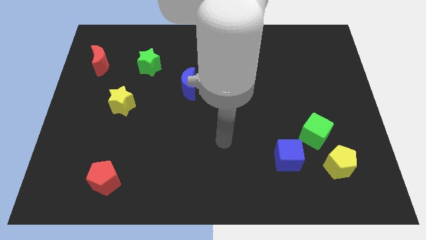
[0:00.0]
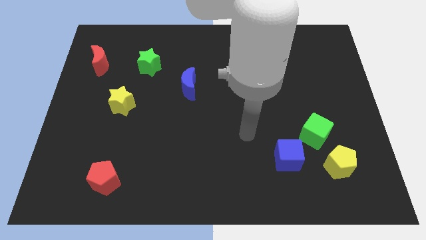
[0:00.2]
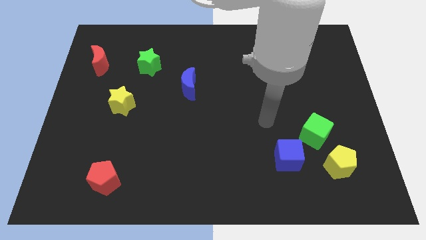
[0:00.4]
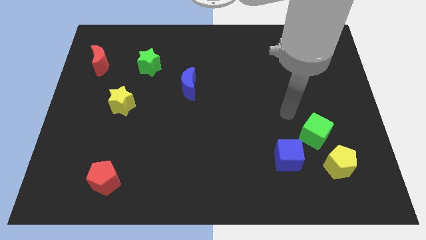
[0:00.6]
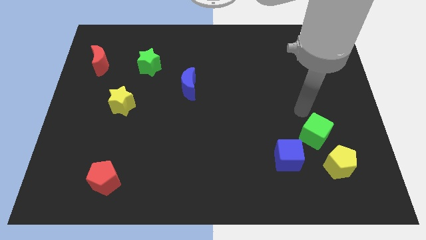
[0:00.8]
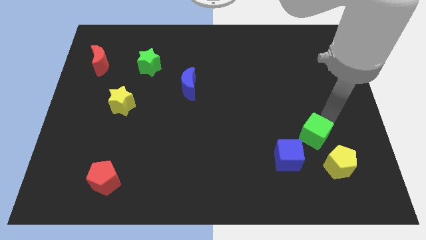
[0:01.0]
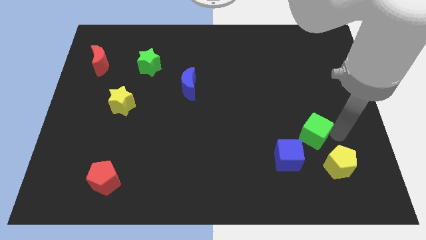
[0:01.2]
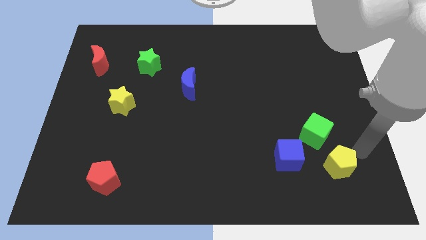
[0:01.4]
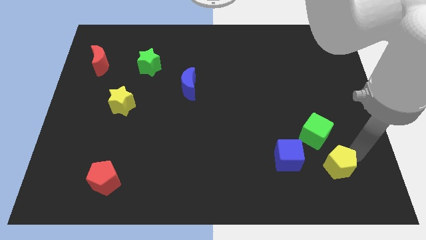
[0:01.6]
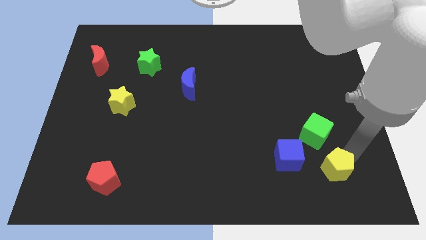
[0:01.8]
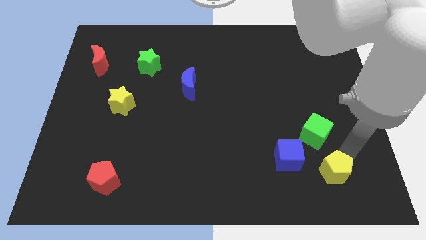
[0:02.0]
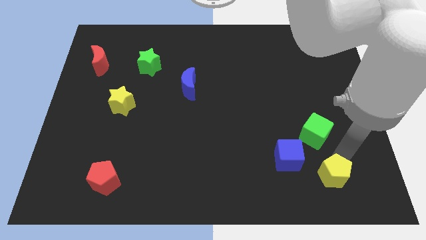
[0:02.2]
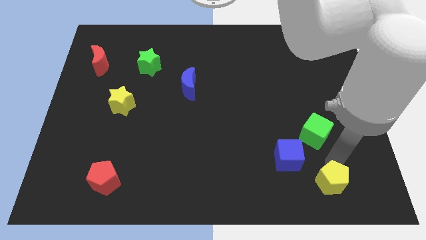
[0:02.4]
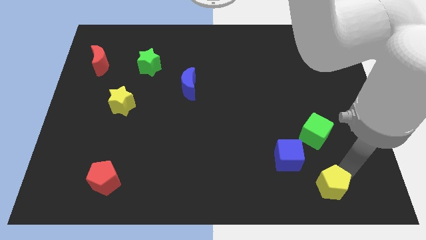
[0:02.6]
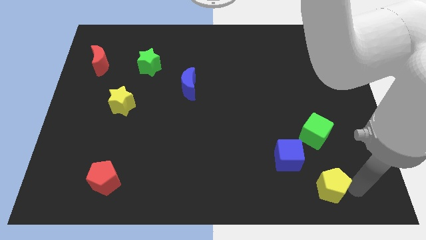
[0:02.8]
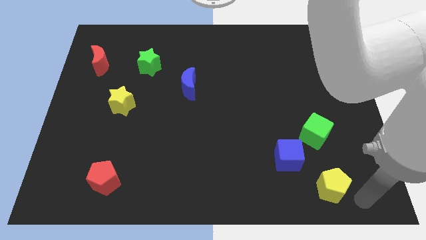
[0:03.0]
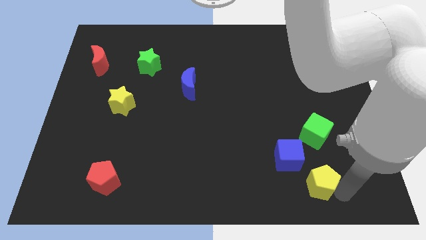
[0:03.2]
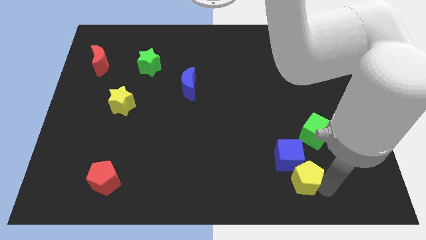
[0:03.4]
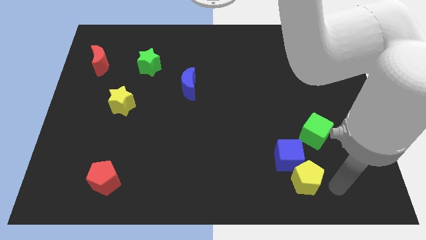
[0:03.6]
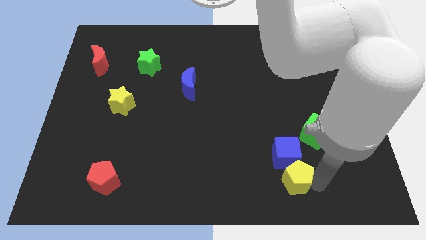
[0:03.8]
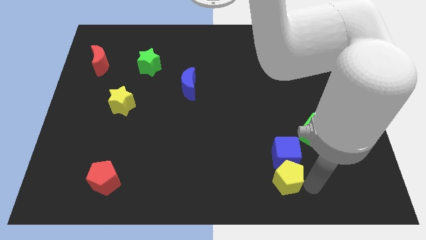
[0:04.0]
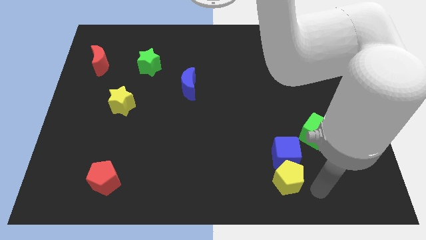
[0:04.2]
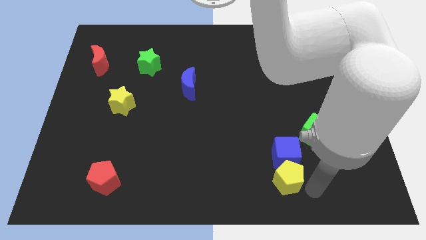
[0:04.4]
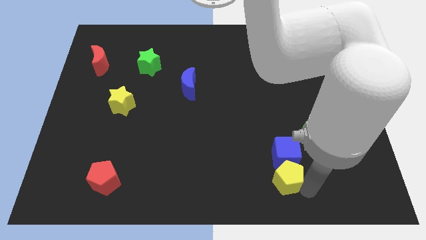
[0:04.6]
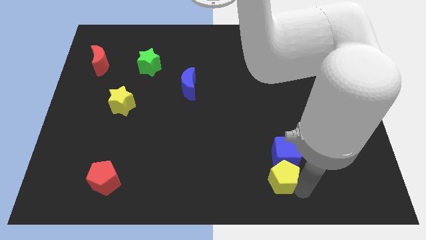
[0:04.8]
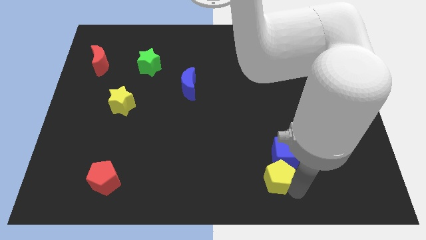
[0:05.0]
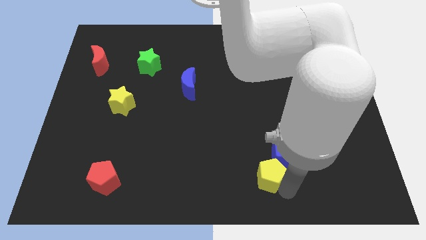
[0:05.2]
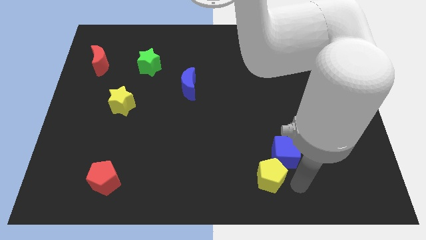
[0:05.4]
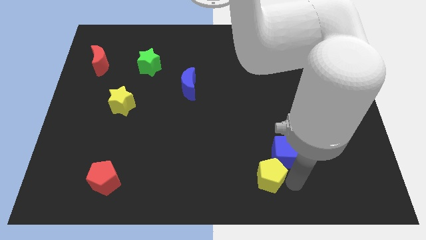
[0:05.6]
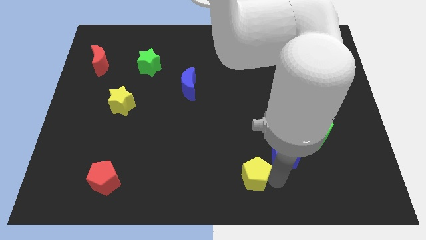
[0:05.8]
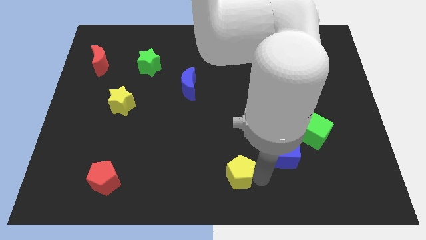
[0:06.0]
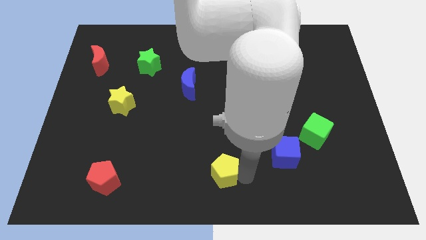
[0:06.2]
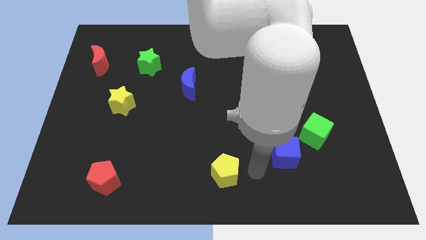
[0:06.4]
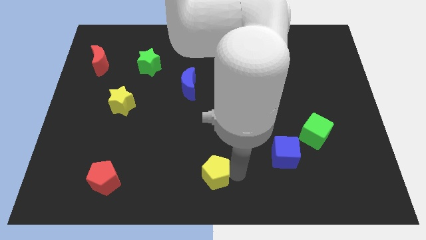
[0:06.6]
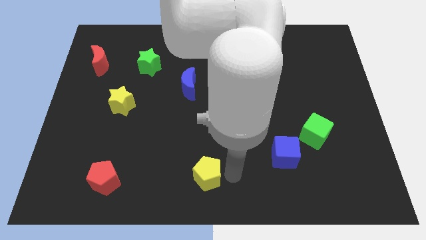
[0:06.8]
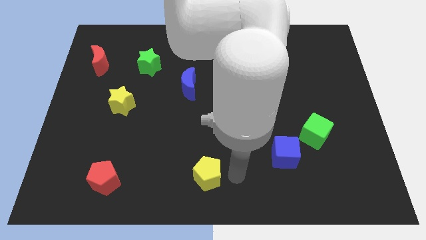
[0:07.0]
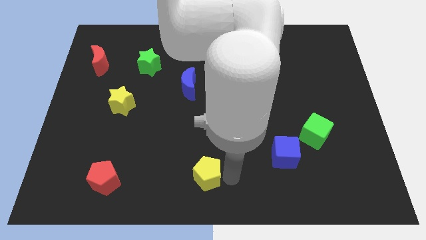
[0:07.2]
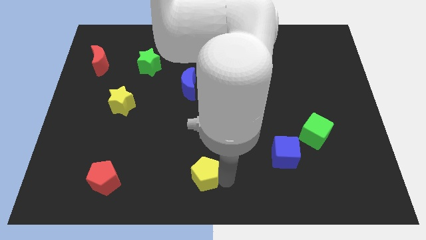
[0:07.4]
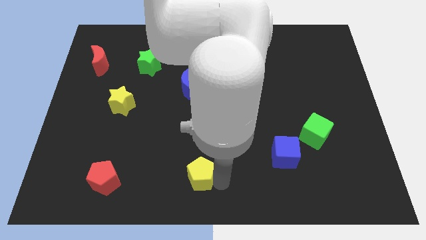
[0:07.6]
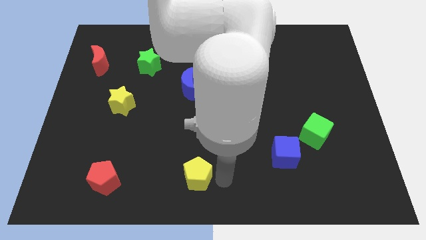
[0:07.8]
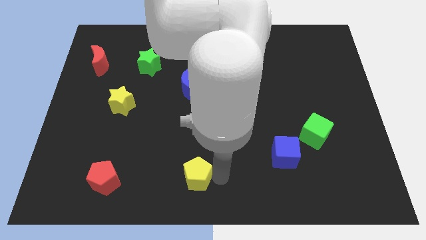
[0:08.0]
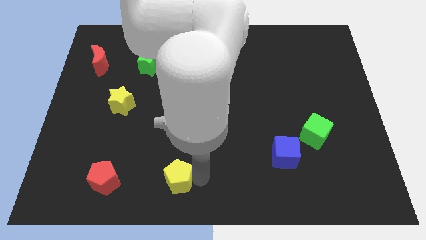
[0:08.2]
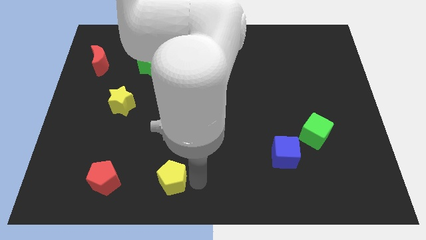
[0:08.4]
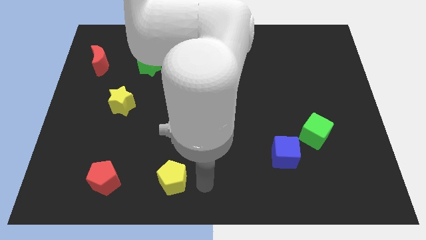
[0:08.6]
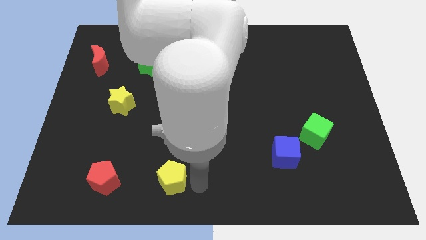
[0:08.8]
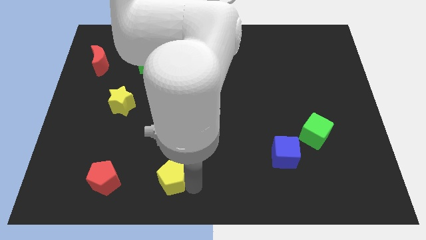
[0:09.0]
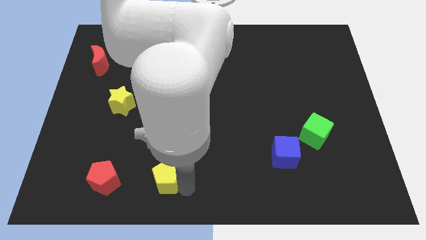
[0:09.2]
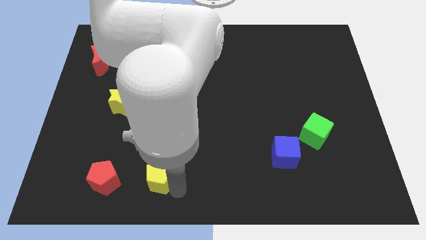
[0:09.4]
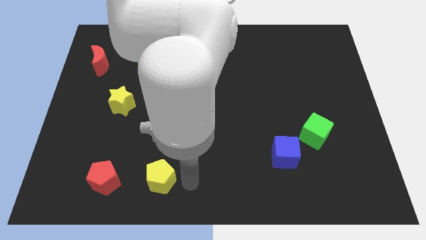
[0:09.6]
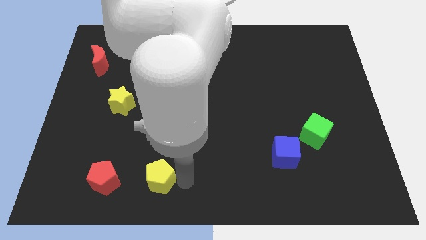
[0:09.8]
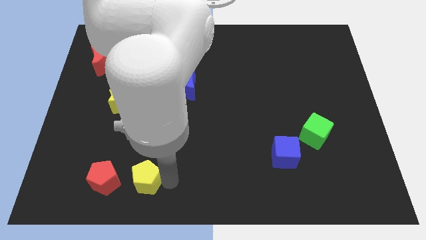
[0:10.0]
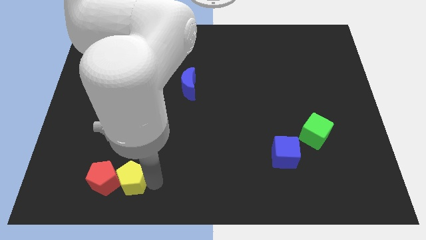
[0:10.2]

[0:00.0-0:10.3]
put the yellow pentagon next to the red pentagon

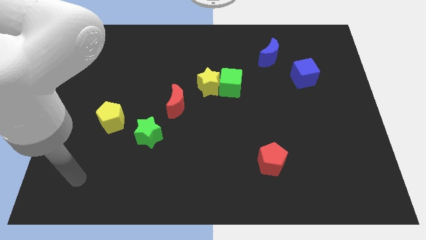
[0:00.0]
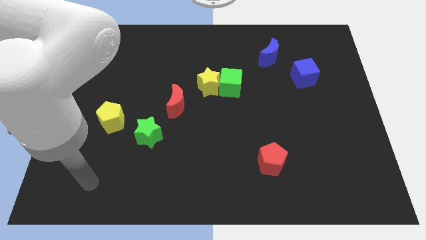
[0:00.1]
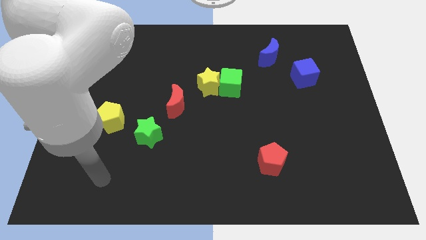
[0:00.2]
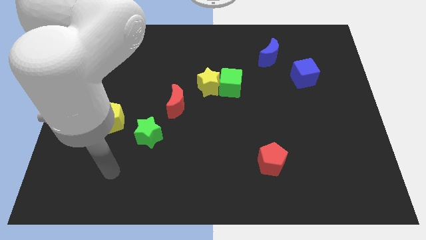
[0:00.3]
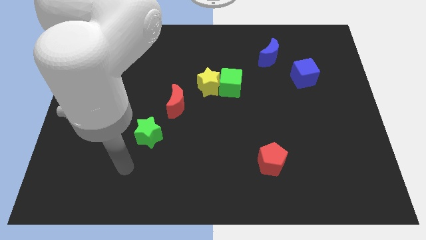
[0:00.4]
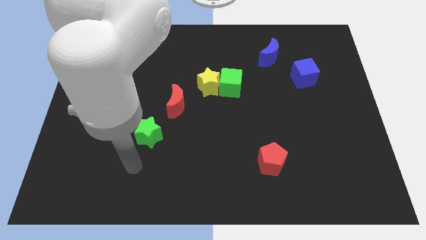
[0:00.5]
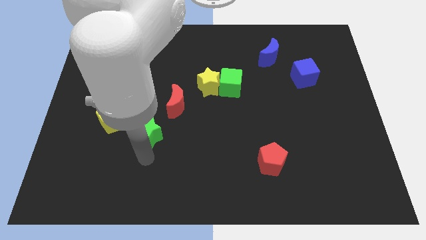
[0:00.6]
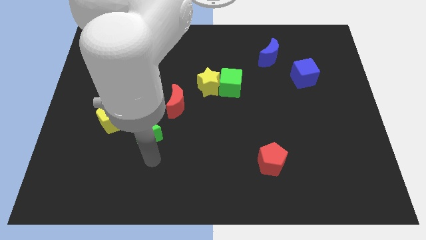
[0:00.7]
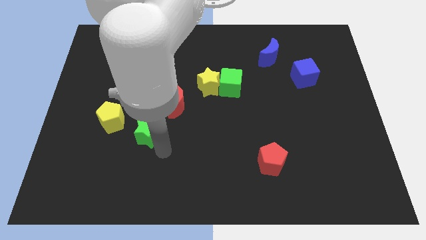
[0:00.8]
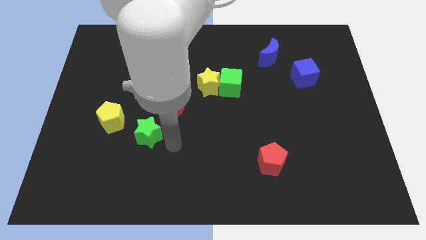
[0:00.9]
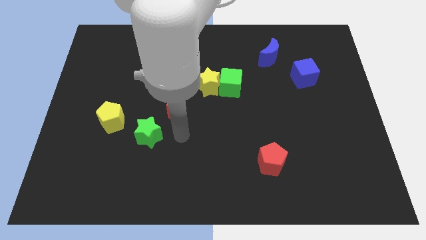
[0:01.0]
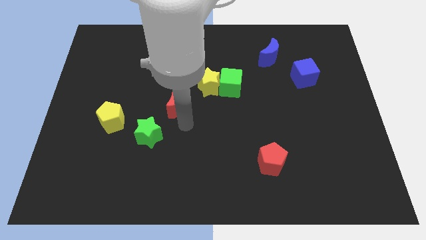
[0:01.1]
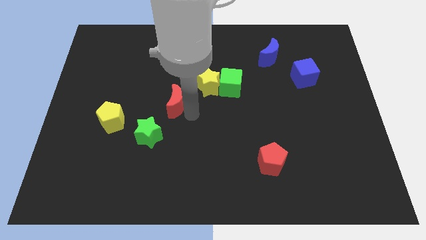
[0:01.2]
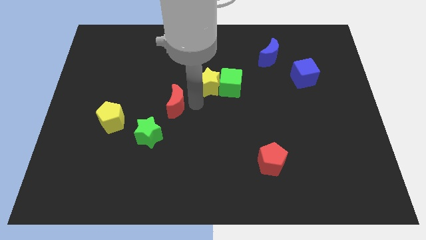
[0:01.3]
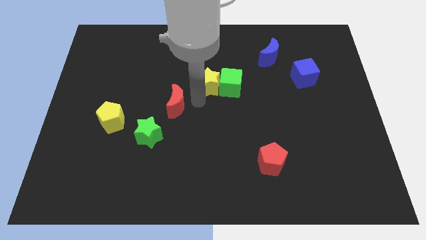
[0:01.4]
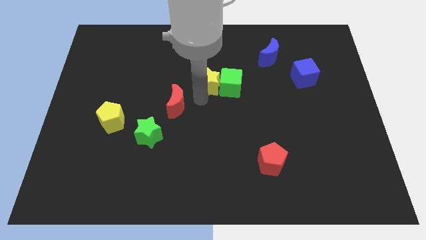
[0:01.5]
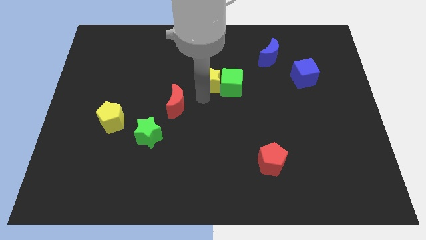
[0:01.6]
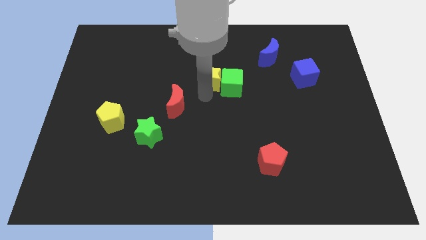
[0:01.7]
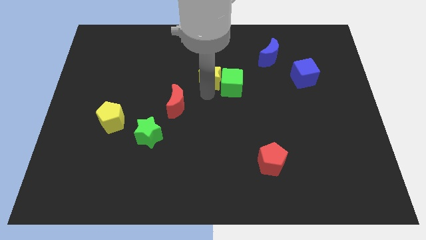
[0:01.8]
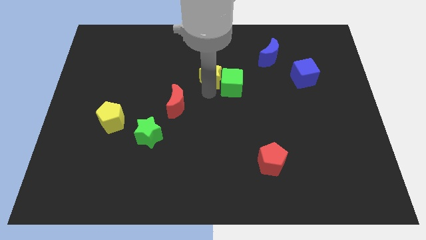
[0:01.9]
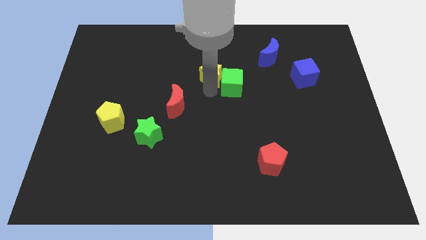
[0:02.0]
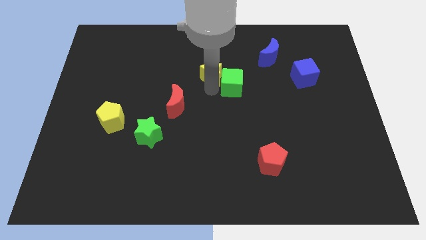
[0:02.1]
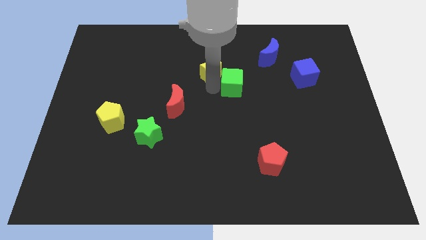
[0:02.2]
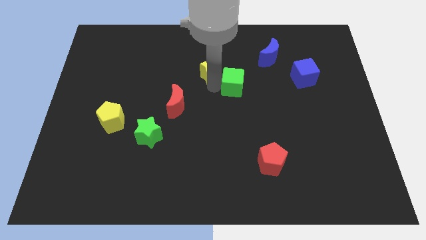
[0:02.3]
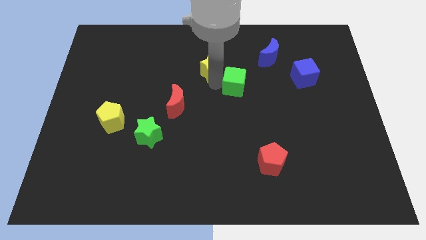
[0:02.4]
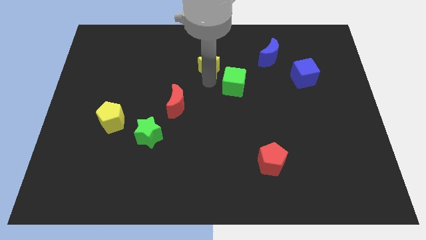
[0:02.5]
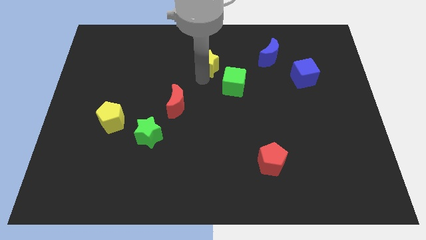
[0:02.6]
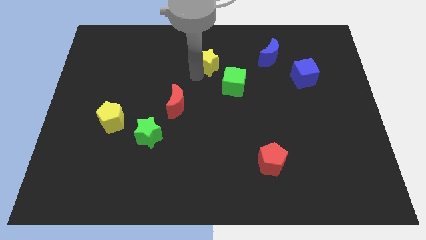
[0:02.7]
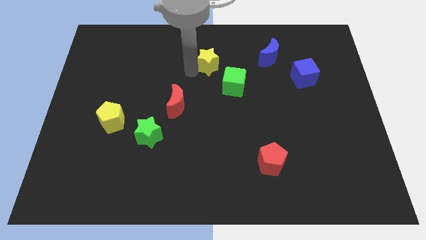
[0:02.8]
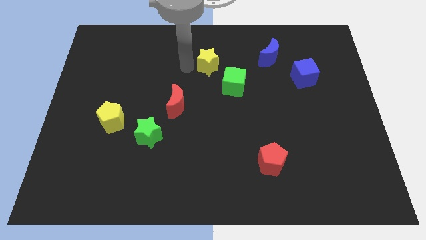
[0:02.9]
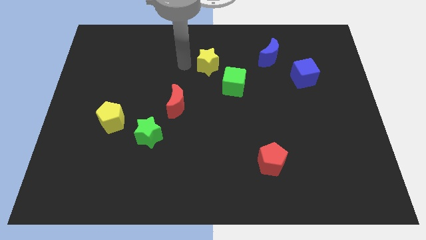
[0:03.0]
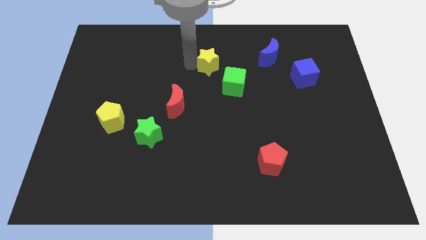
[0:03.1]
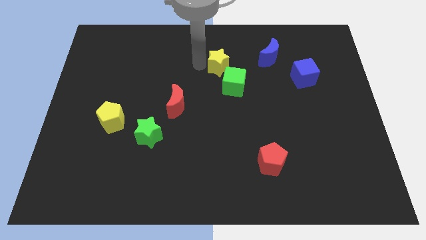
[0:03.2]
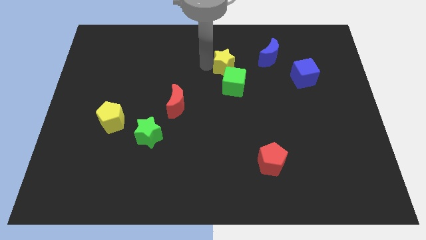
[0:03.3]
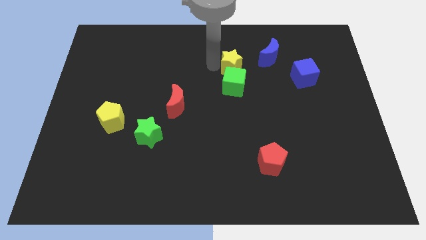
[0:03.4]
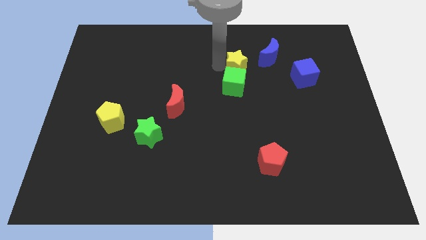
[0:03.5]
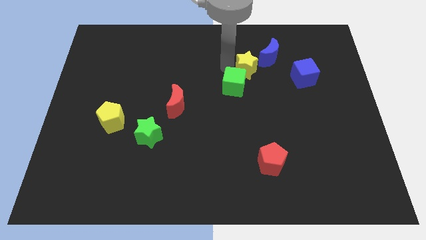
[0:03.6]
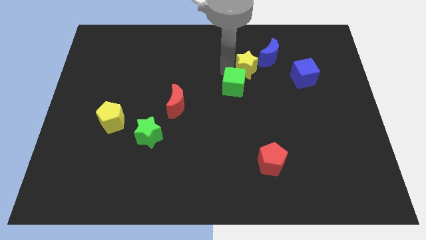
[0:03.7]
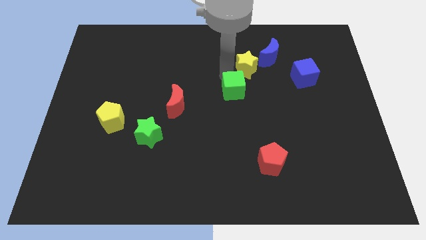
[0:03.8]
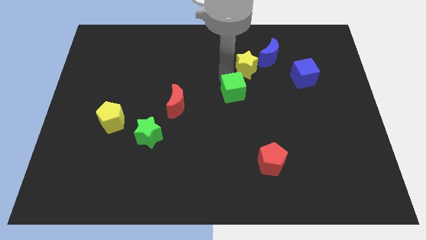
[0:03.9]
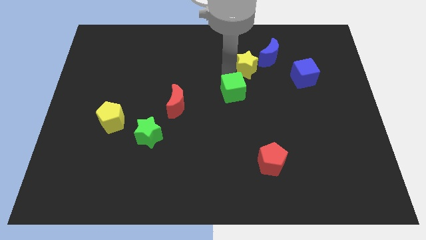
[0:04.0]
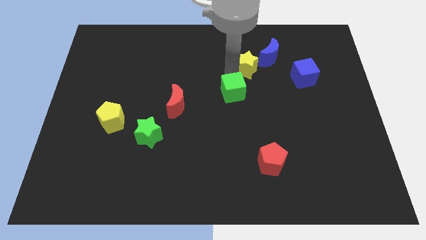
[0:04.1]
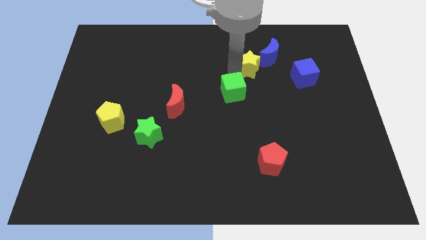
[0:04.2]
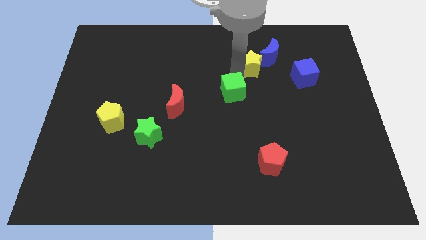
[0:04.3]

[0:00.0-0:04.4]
push the yellow star close to the blue moon
